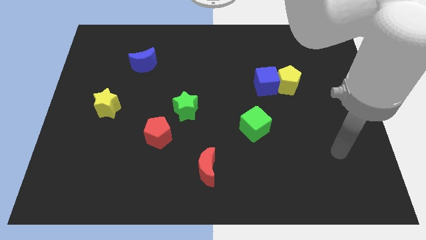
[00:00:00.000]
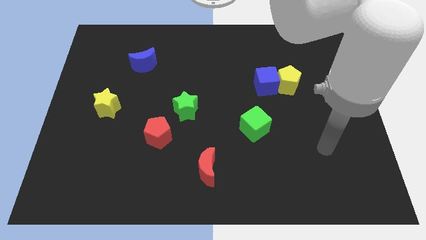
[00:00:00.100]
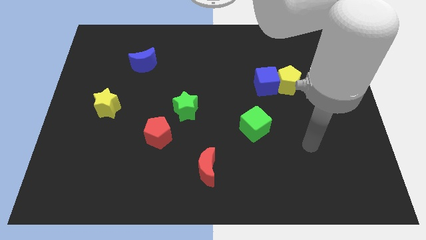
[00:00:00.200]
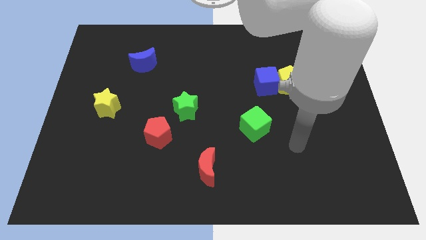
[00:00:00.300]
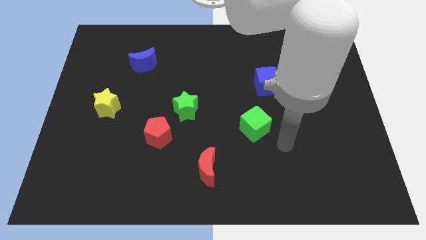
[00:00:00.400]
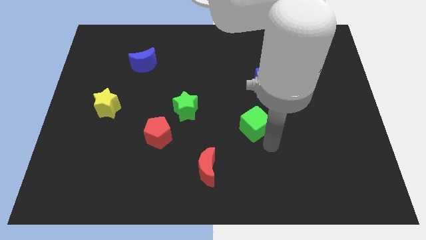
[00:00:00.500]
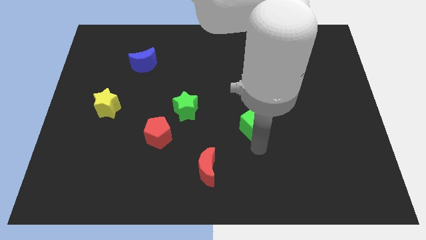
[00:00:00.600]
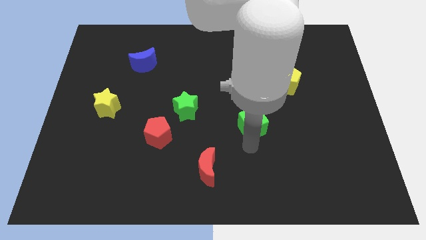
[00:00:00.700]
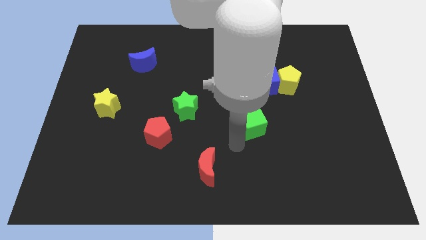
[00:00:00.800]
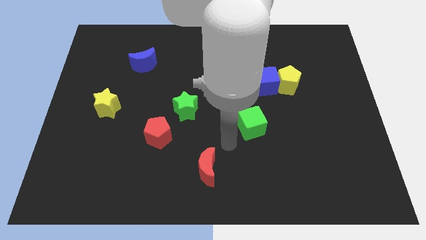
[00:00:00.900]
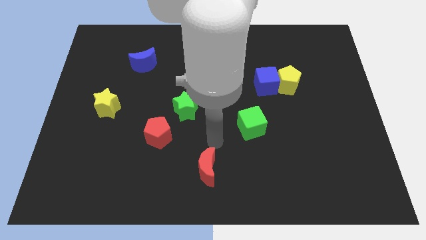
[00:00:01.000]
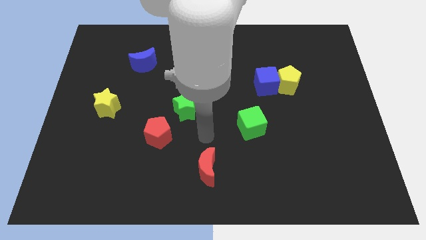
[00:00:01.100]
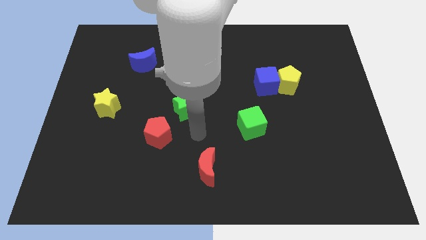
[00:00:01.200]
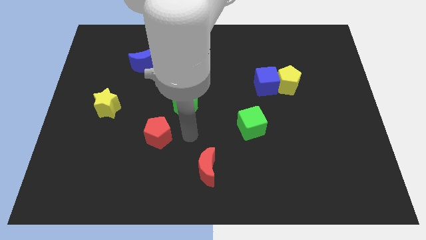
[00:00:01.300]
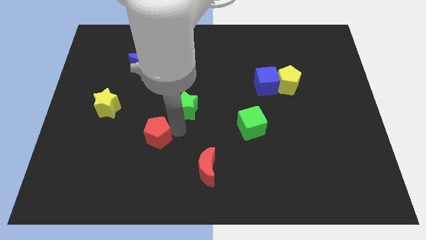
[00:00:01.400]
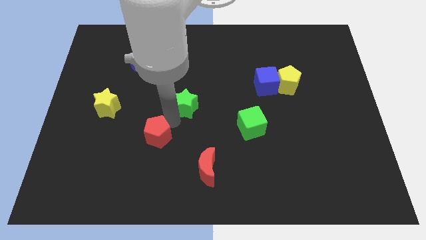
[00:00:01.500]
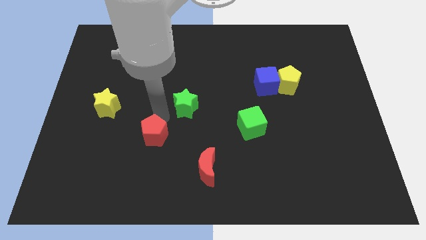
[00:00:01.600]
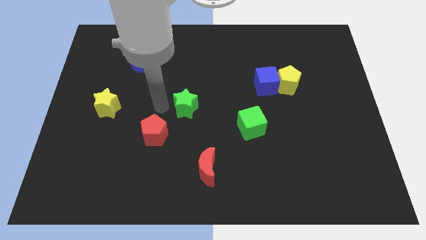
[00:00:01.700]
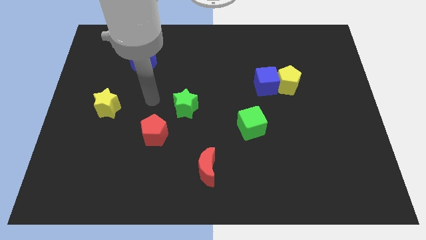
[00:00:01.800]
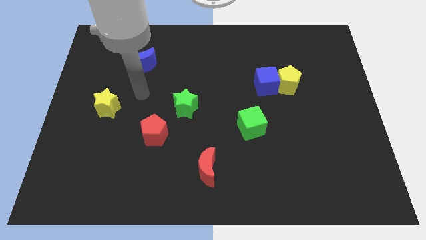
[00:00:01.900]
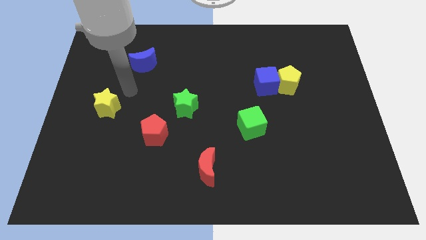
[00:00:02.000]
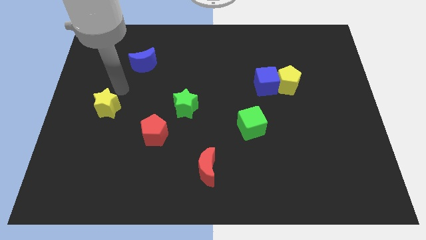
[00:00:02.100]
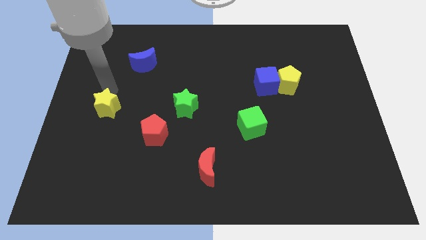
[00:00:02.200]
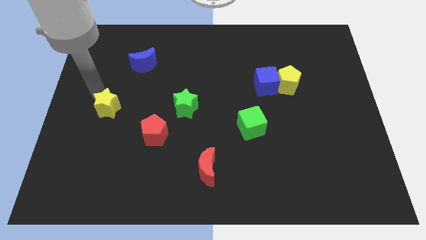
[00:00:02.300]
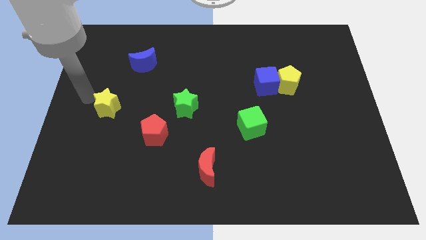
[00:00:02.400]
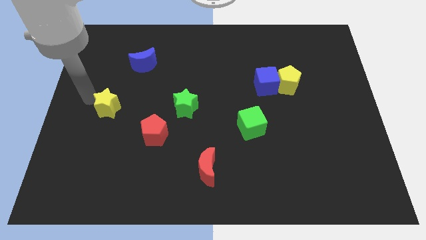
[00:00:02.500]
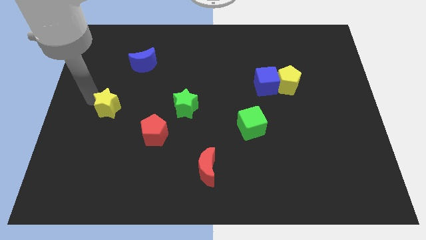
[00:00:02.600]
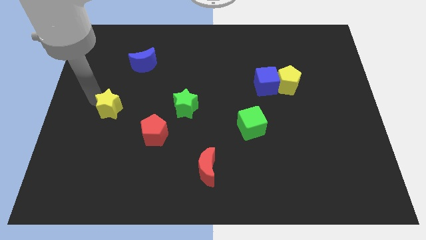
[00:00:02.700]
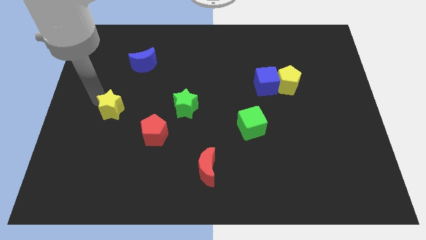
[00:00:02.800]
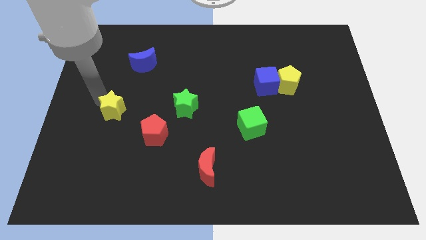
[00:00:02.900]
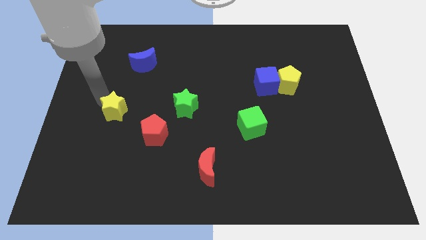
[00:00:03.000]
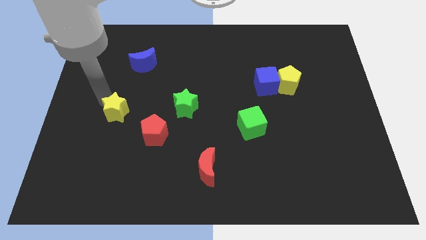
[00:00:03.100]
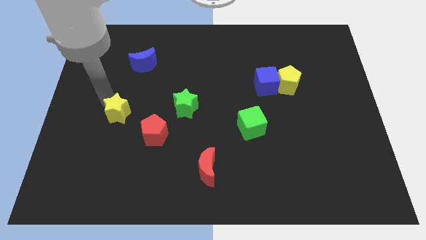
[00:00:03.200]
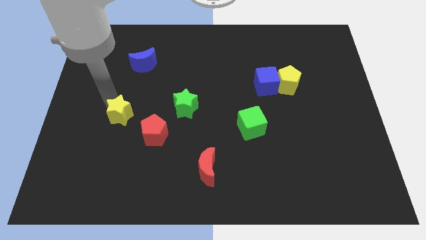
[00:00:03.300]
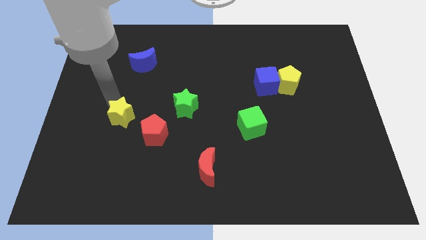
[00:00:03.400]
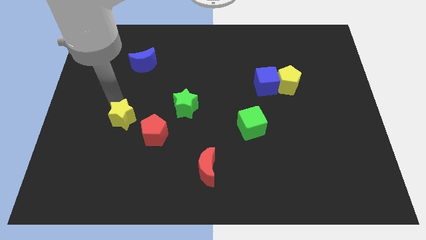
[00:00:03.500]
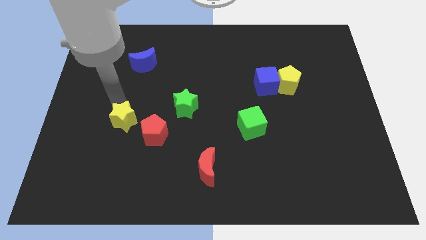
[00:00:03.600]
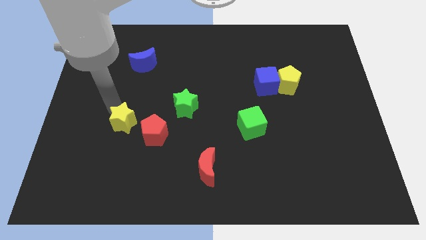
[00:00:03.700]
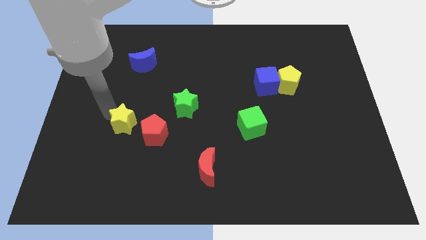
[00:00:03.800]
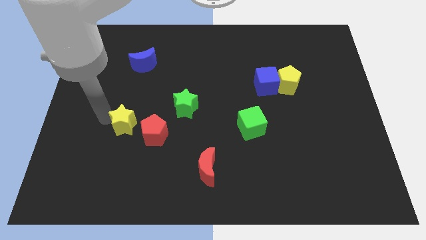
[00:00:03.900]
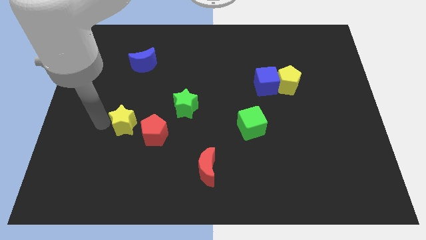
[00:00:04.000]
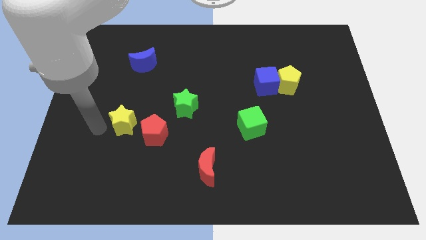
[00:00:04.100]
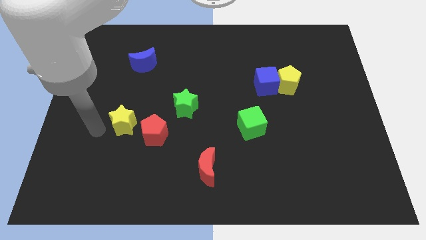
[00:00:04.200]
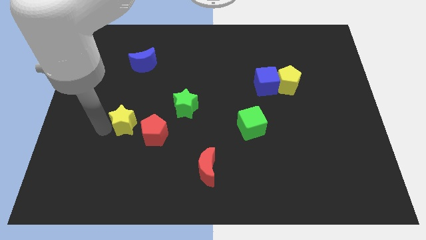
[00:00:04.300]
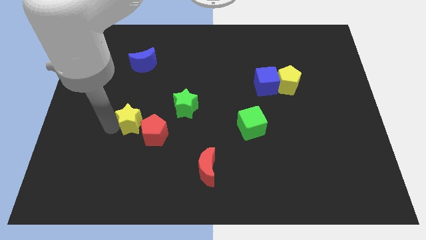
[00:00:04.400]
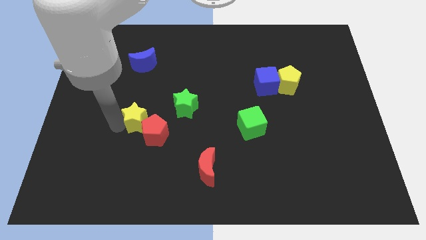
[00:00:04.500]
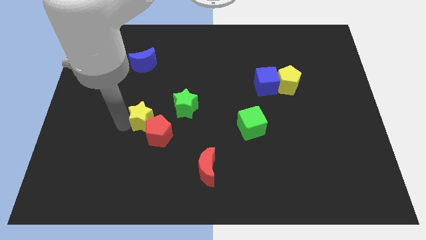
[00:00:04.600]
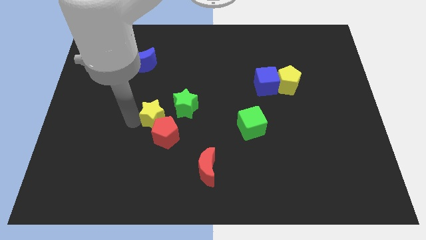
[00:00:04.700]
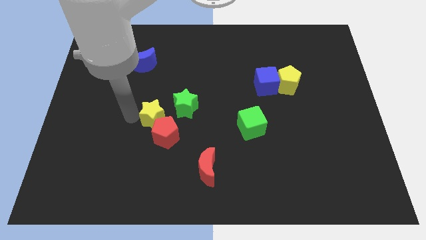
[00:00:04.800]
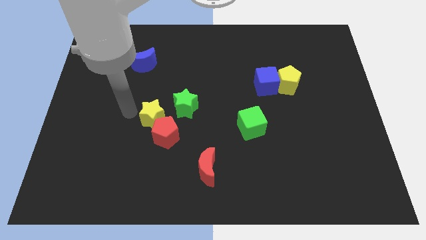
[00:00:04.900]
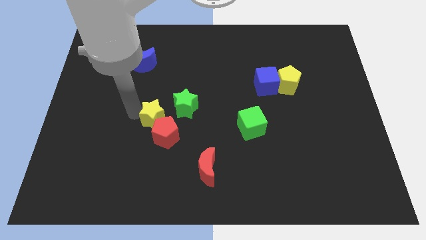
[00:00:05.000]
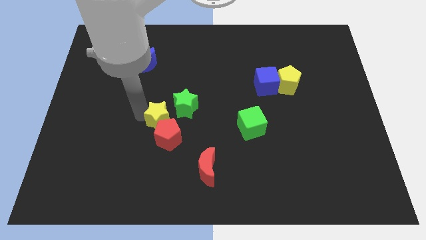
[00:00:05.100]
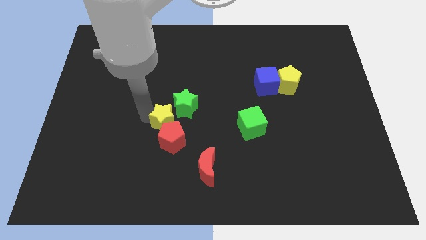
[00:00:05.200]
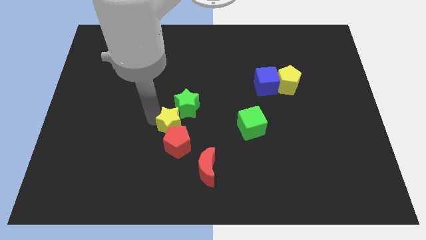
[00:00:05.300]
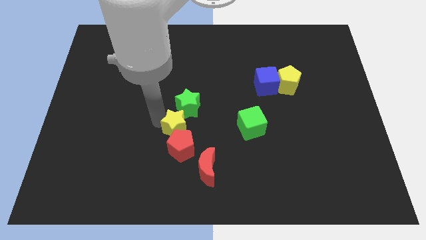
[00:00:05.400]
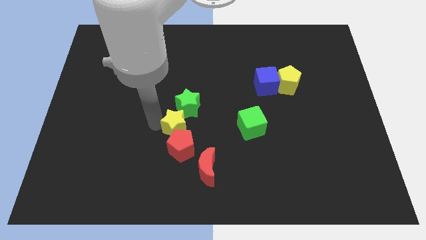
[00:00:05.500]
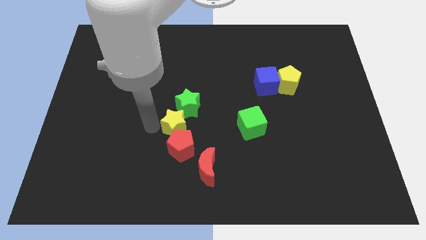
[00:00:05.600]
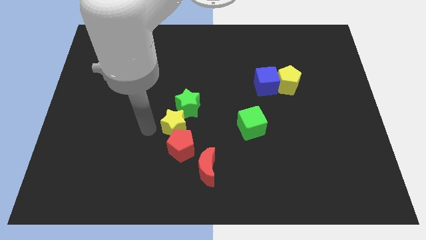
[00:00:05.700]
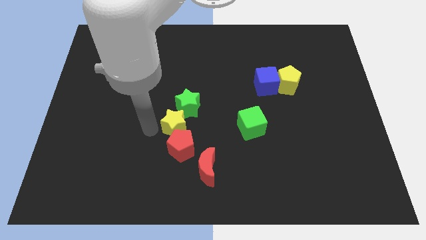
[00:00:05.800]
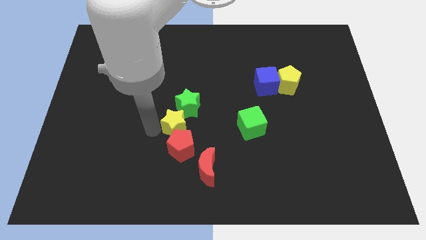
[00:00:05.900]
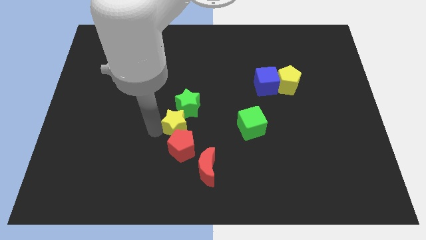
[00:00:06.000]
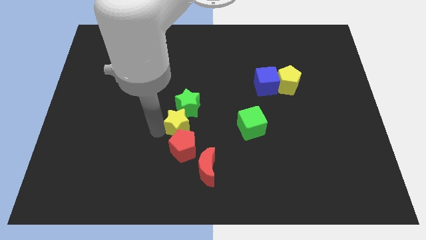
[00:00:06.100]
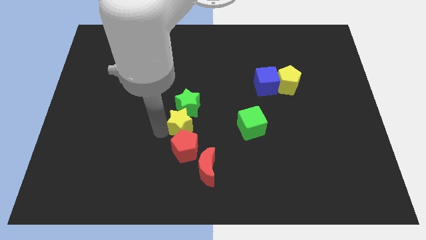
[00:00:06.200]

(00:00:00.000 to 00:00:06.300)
slide the yellow star diagonally down and to the right of the green star
